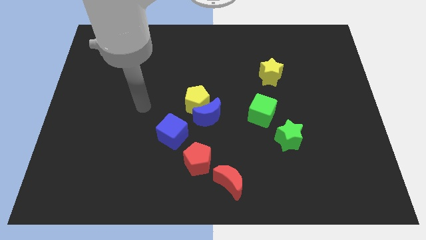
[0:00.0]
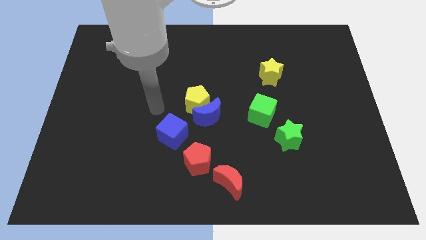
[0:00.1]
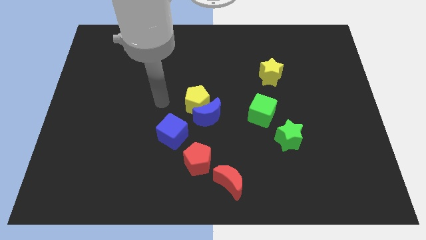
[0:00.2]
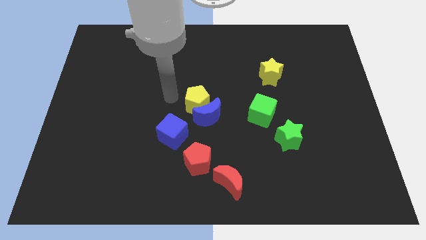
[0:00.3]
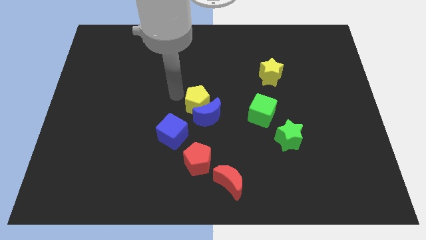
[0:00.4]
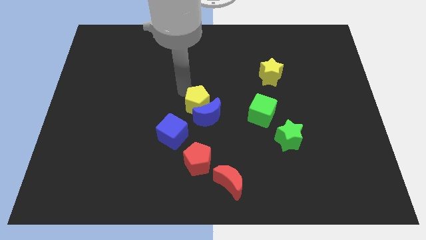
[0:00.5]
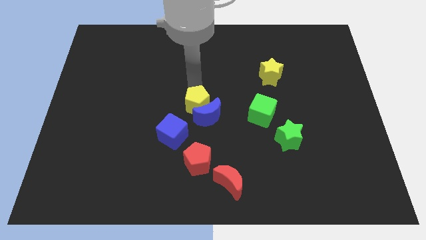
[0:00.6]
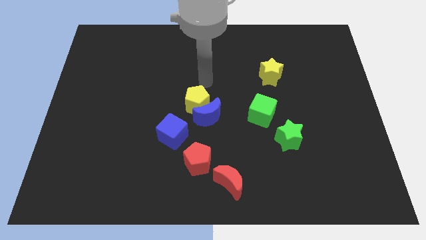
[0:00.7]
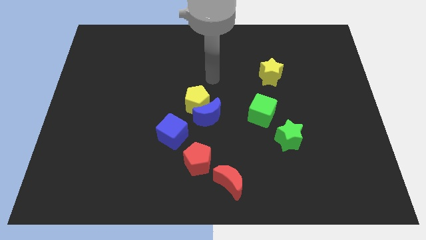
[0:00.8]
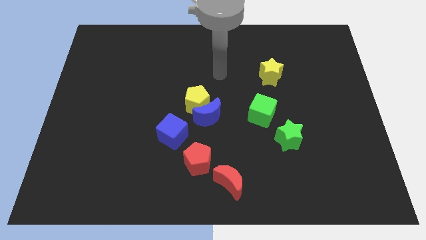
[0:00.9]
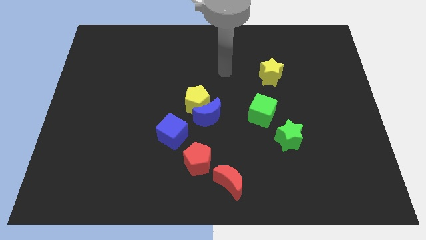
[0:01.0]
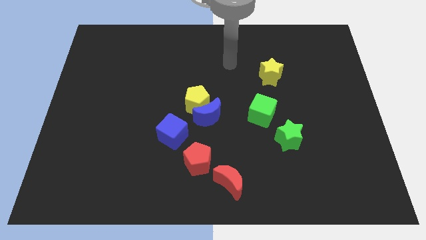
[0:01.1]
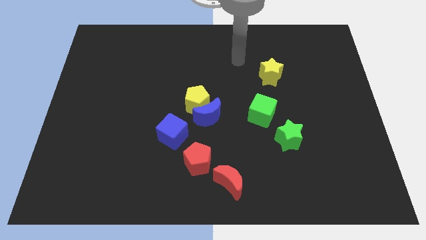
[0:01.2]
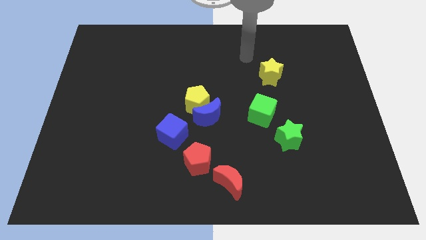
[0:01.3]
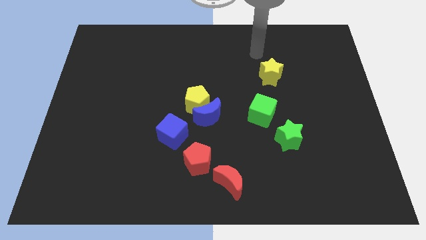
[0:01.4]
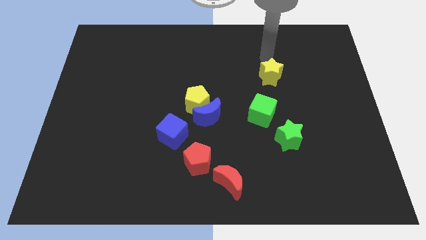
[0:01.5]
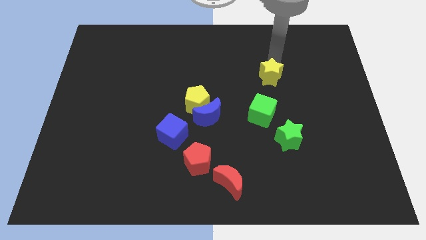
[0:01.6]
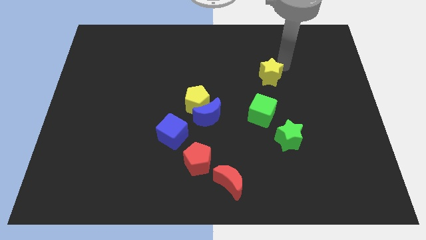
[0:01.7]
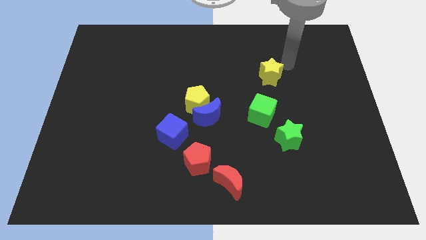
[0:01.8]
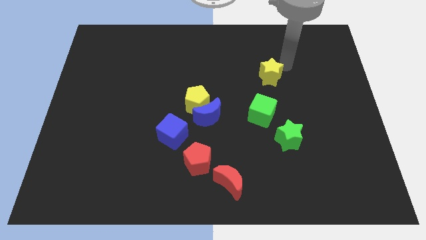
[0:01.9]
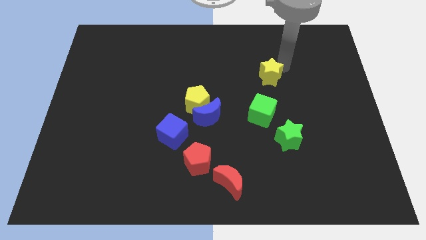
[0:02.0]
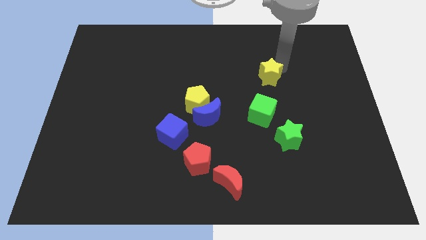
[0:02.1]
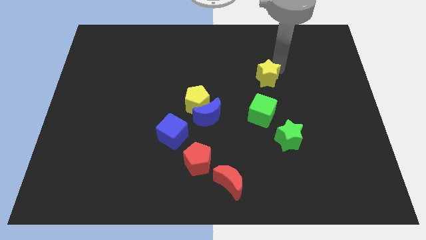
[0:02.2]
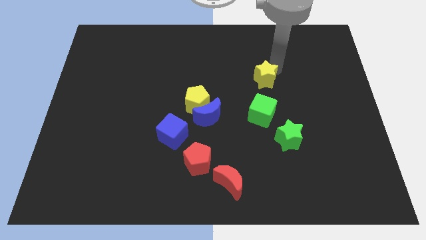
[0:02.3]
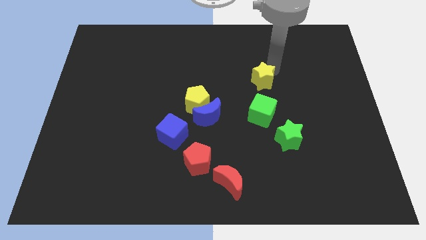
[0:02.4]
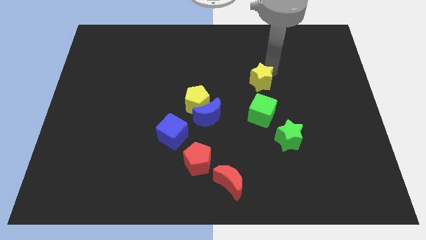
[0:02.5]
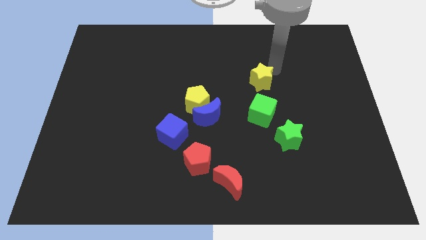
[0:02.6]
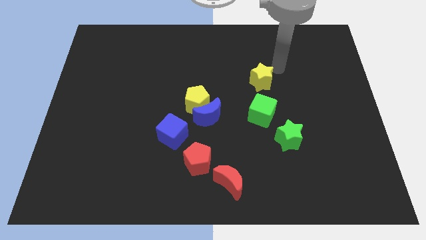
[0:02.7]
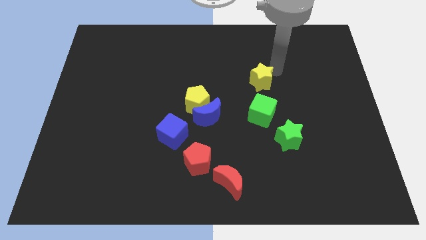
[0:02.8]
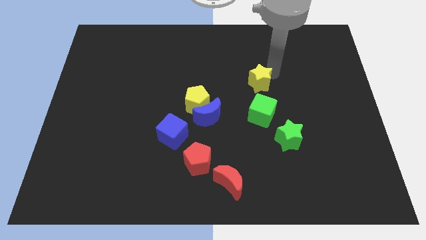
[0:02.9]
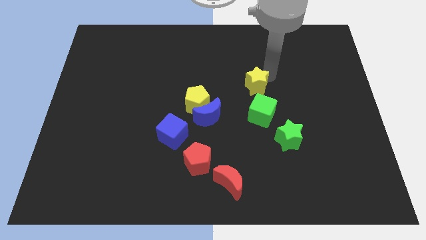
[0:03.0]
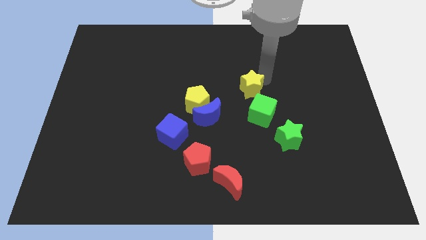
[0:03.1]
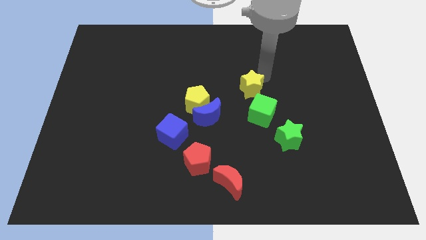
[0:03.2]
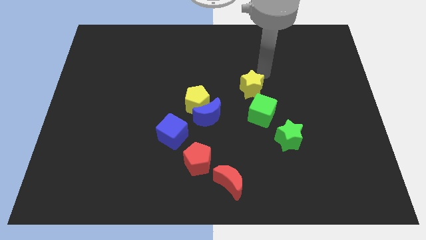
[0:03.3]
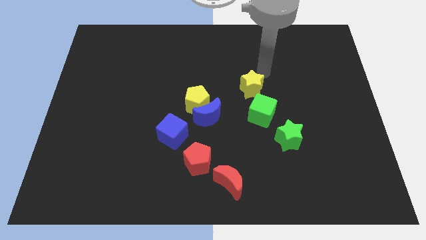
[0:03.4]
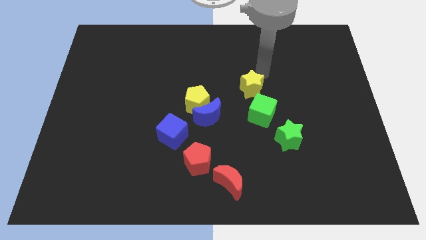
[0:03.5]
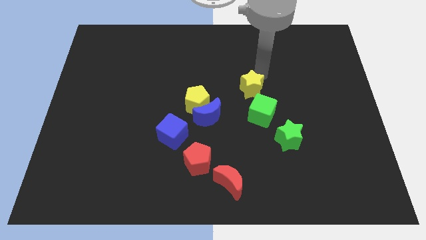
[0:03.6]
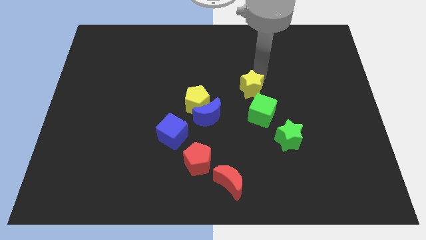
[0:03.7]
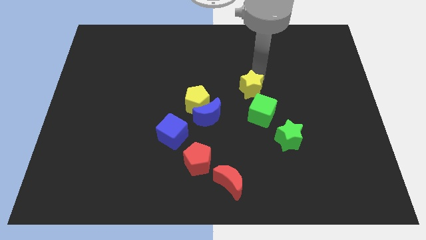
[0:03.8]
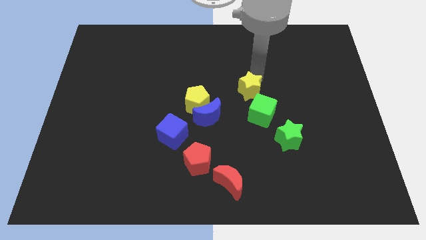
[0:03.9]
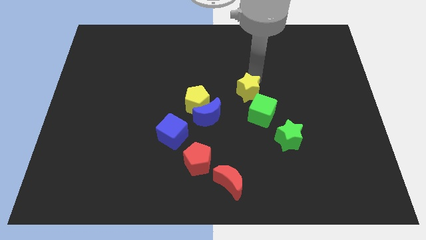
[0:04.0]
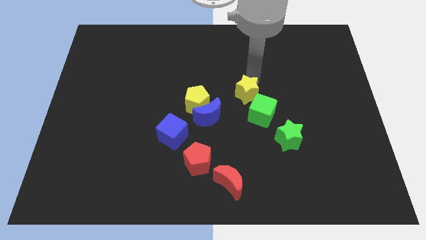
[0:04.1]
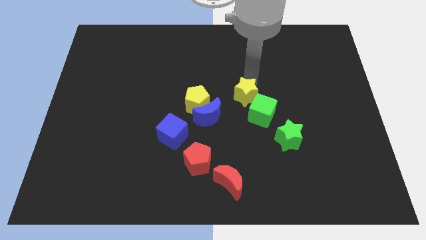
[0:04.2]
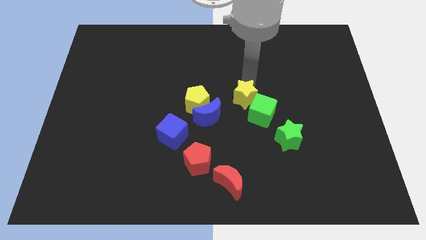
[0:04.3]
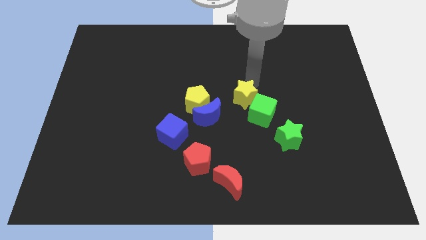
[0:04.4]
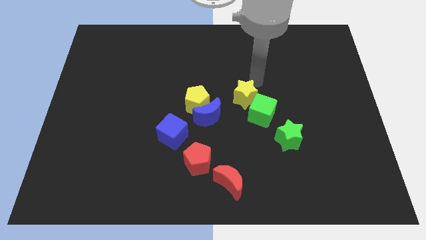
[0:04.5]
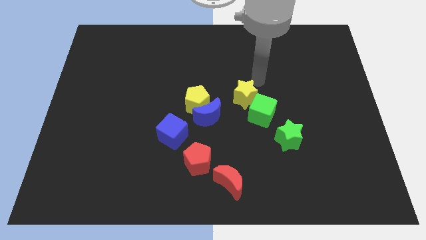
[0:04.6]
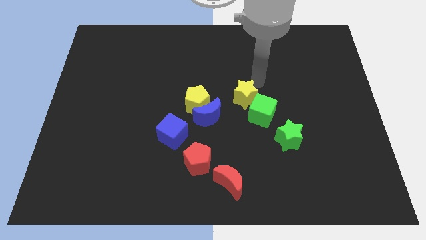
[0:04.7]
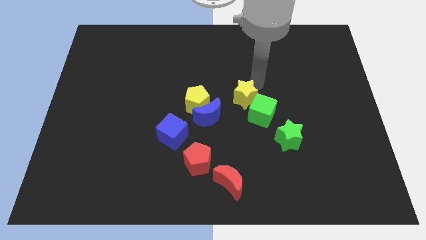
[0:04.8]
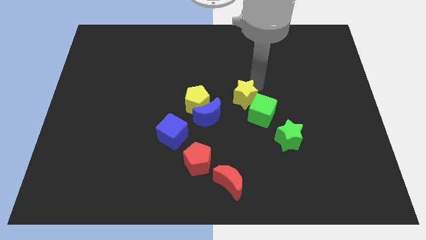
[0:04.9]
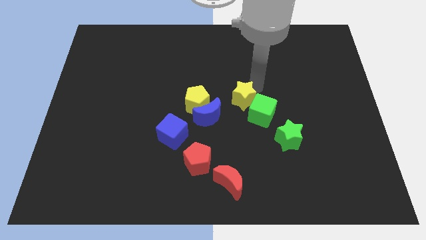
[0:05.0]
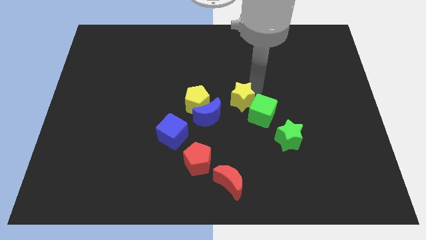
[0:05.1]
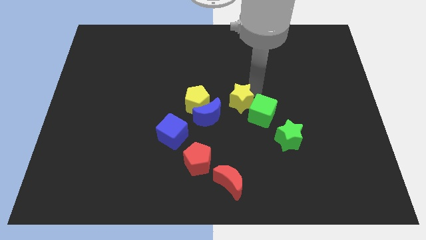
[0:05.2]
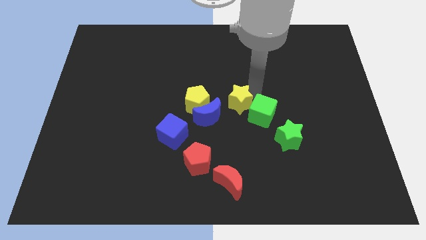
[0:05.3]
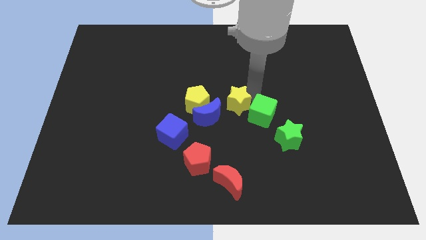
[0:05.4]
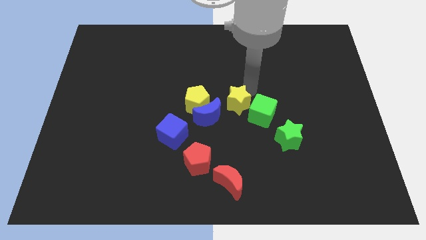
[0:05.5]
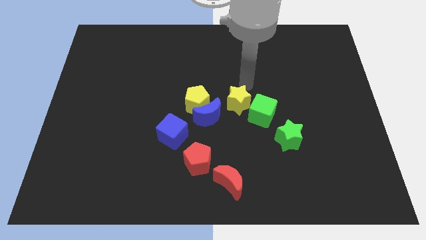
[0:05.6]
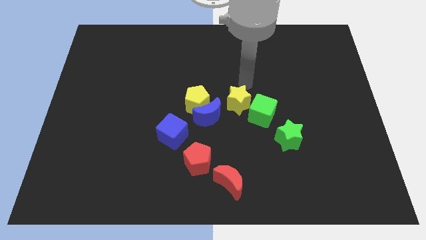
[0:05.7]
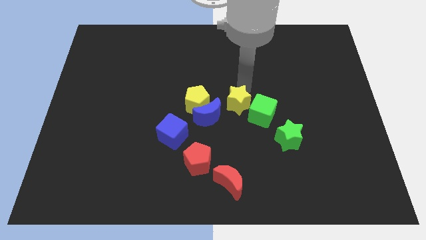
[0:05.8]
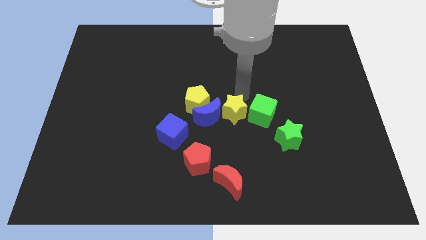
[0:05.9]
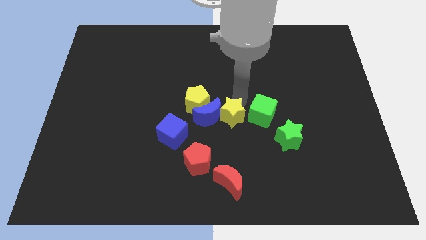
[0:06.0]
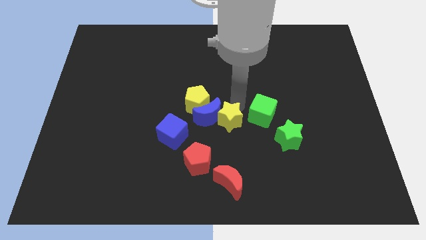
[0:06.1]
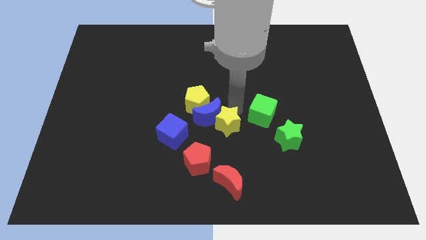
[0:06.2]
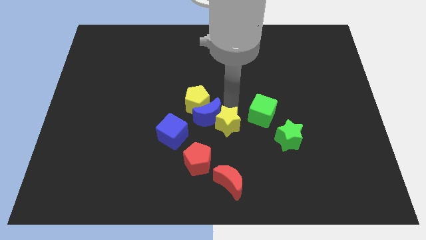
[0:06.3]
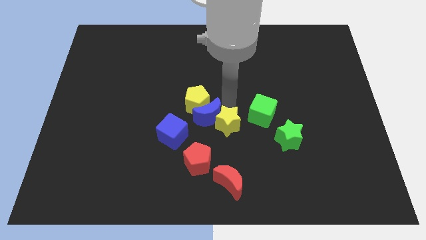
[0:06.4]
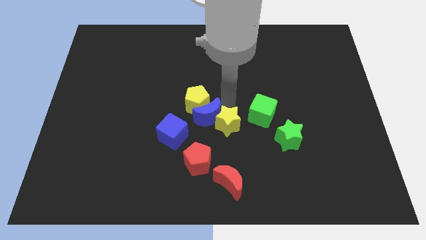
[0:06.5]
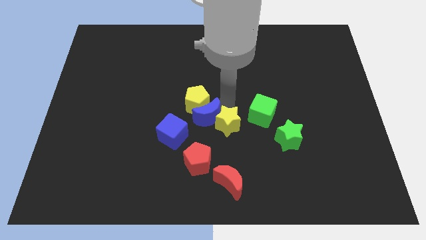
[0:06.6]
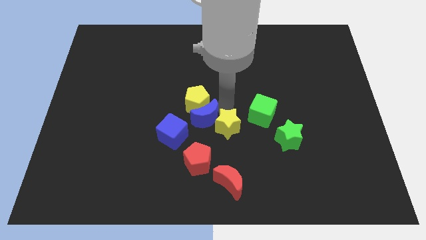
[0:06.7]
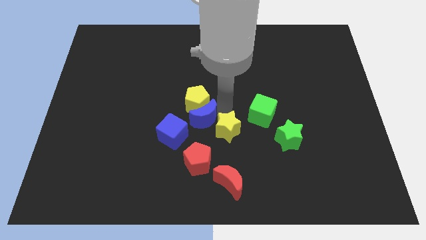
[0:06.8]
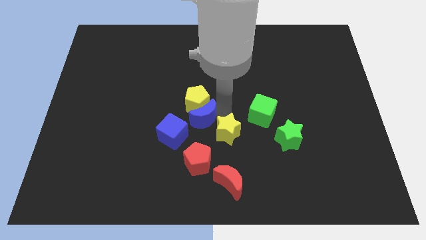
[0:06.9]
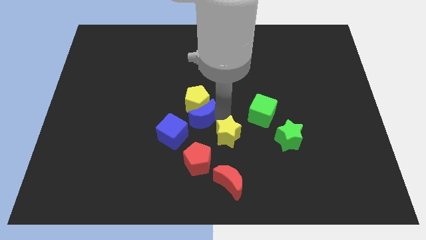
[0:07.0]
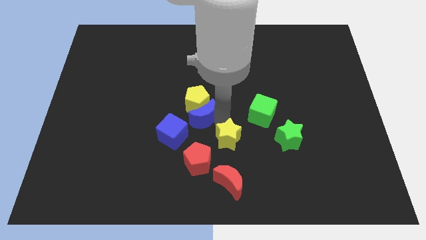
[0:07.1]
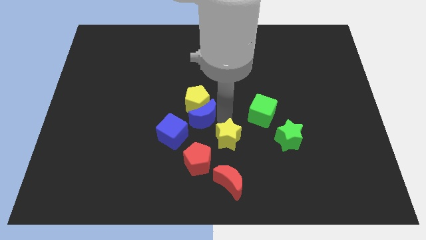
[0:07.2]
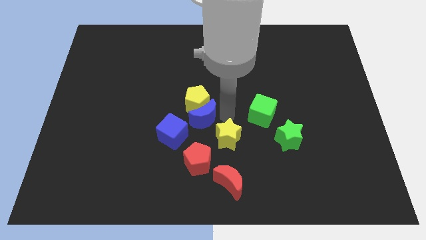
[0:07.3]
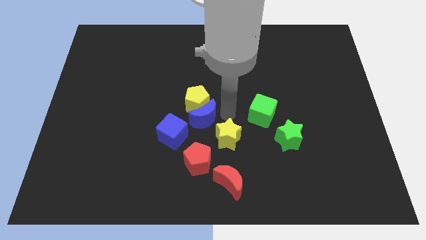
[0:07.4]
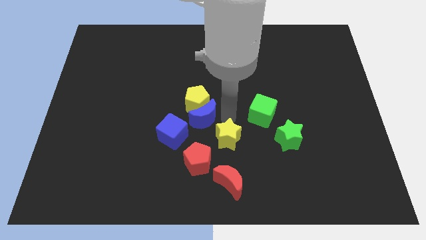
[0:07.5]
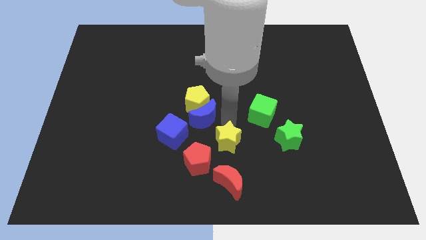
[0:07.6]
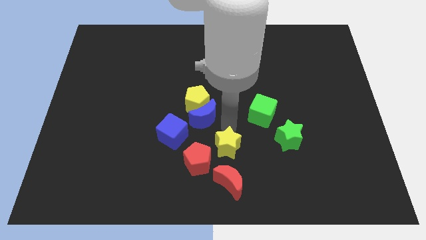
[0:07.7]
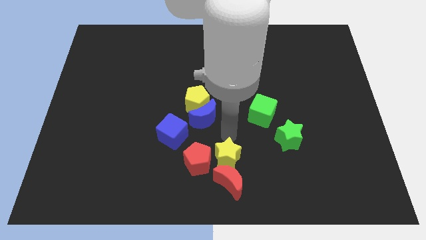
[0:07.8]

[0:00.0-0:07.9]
put the yellow star to the red moon
